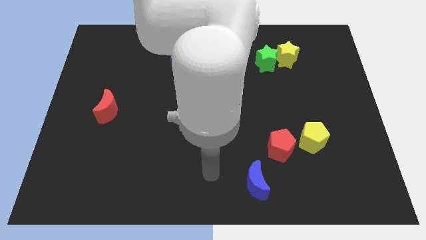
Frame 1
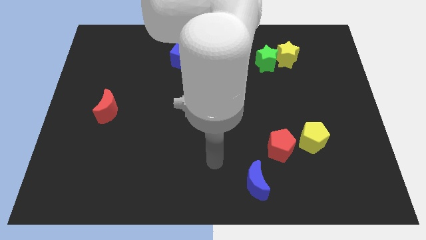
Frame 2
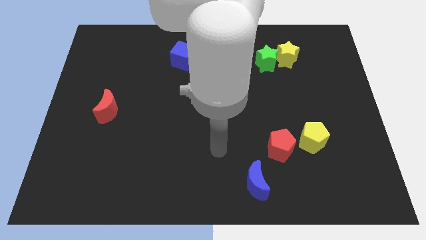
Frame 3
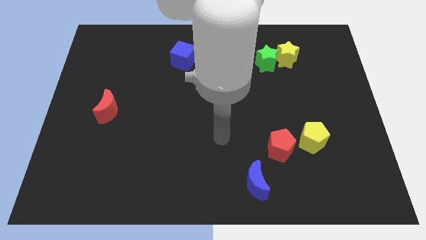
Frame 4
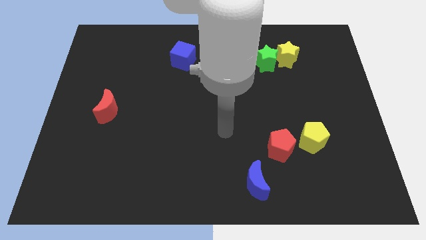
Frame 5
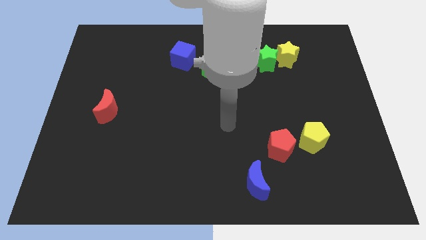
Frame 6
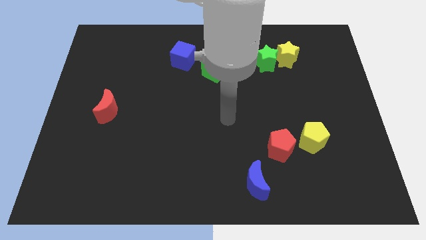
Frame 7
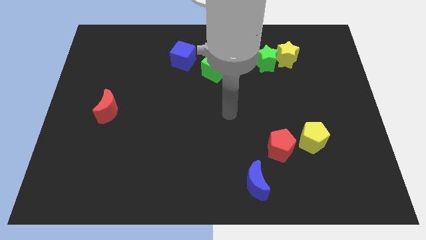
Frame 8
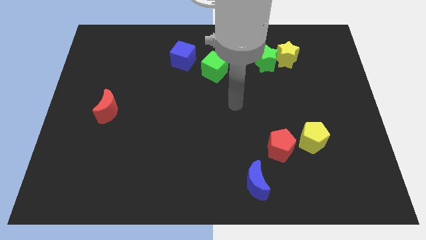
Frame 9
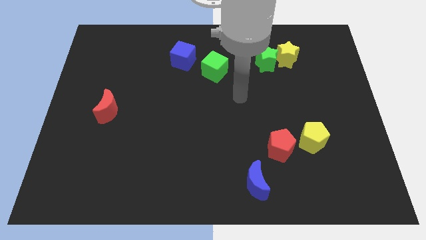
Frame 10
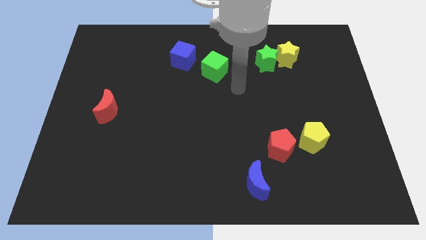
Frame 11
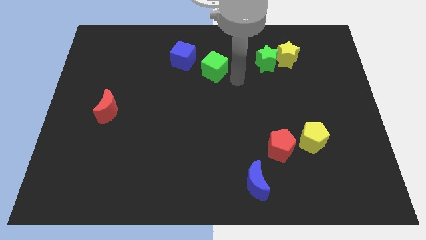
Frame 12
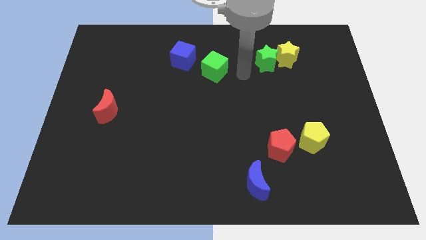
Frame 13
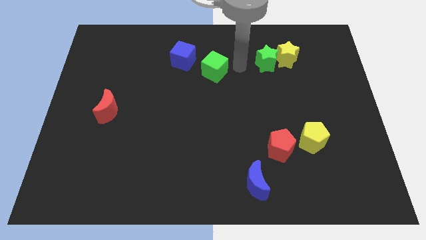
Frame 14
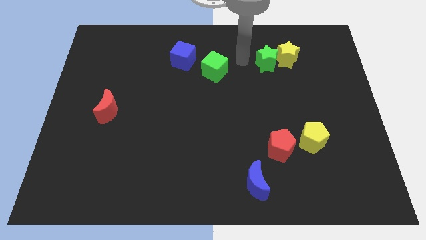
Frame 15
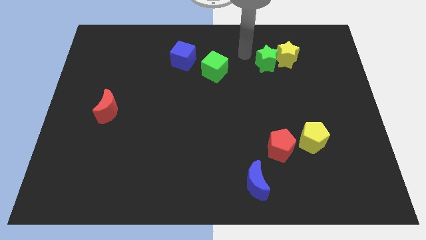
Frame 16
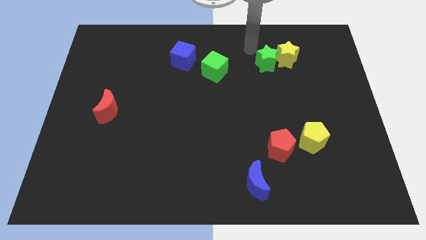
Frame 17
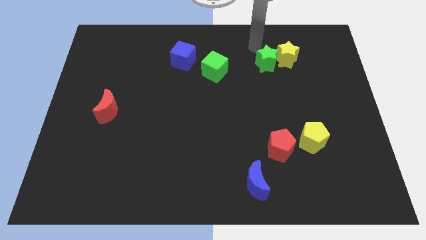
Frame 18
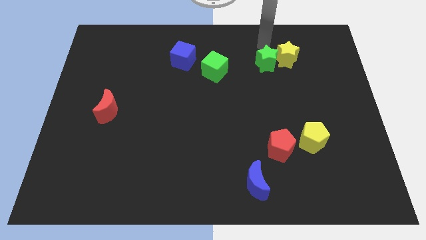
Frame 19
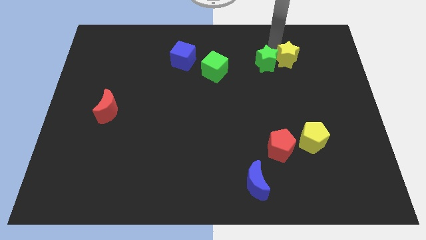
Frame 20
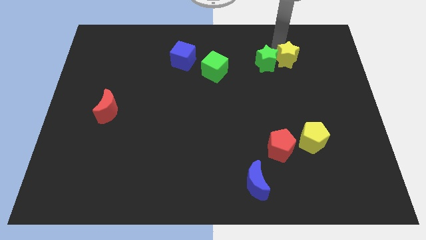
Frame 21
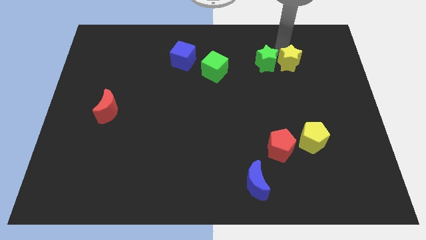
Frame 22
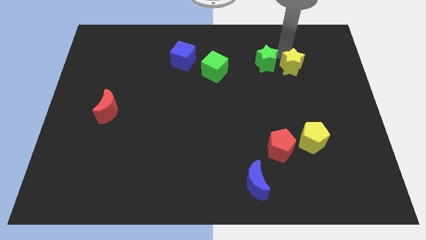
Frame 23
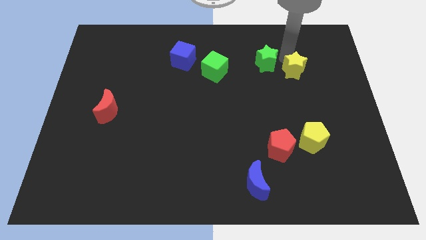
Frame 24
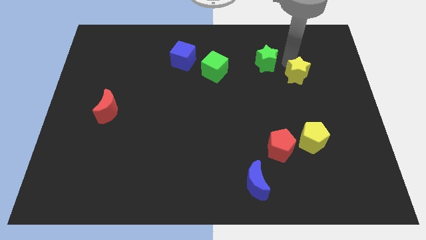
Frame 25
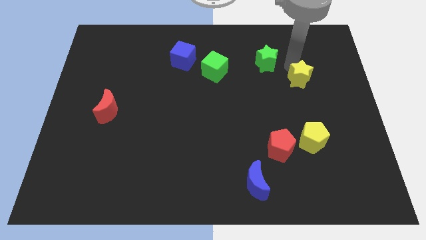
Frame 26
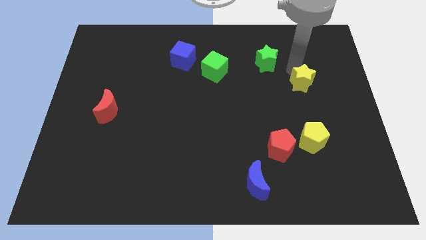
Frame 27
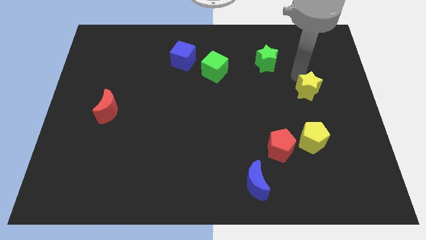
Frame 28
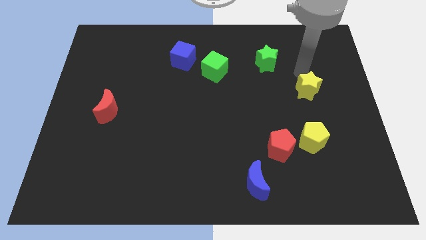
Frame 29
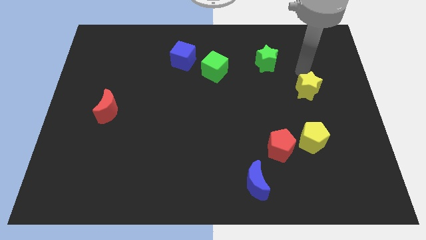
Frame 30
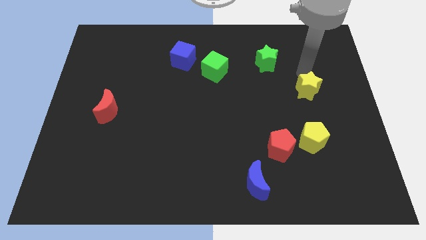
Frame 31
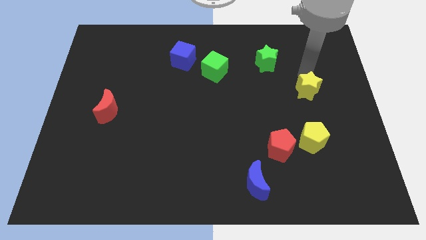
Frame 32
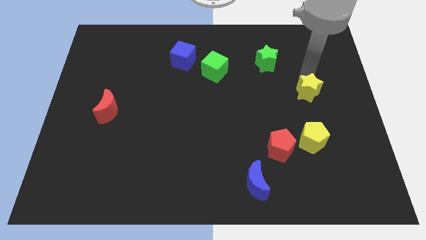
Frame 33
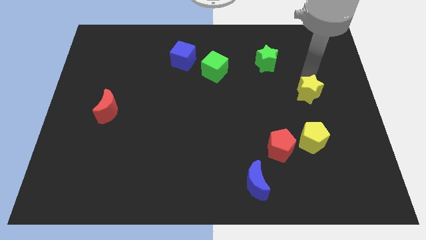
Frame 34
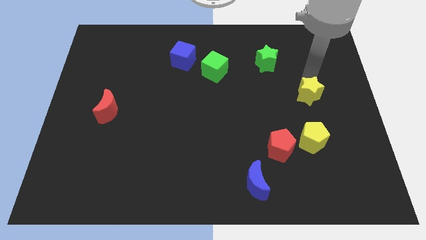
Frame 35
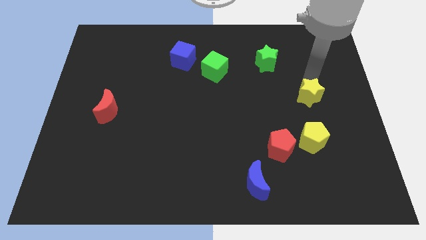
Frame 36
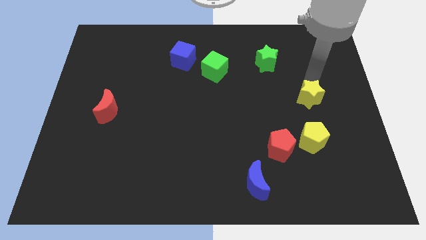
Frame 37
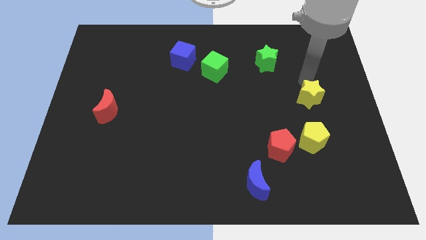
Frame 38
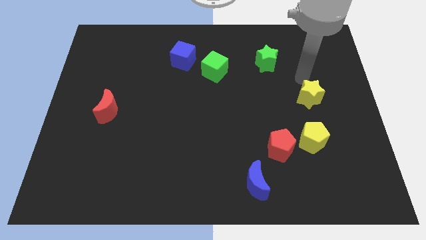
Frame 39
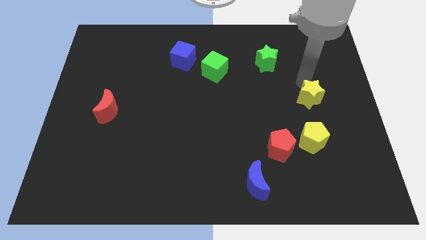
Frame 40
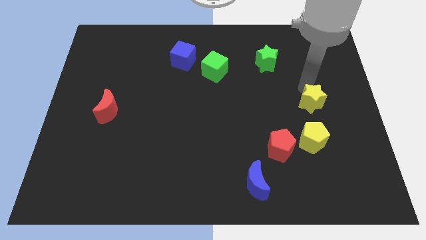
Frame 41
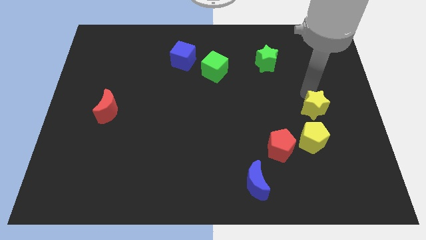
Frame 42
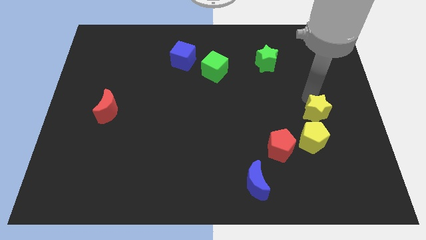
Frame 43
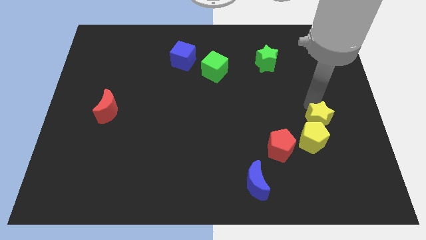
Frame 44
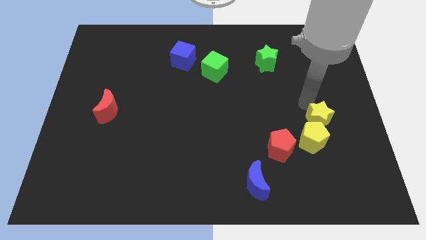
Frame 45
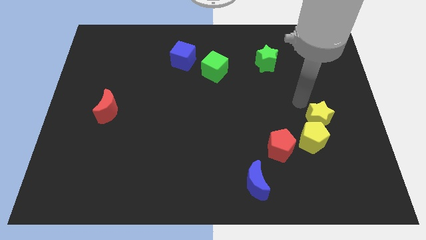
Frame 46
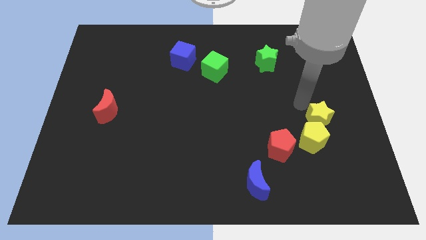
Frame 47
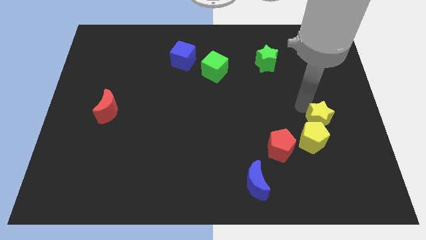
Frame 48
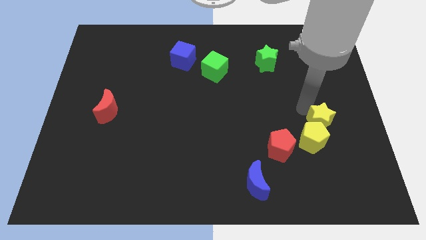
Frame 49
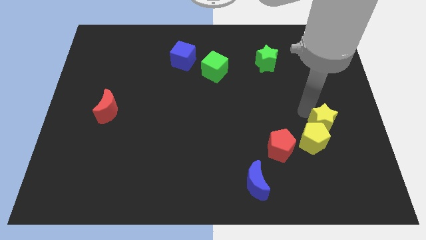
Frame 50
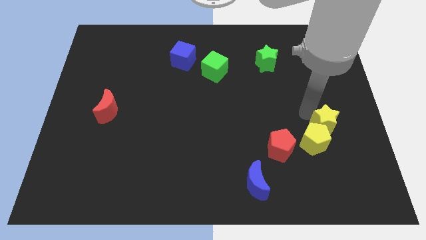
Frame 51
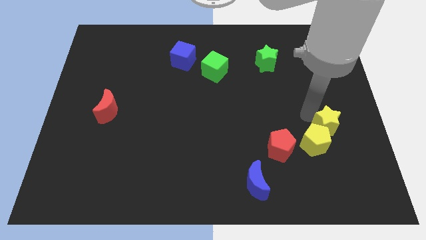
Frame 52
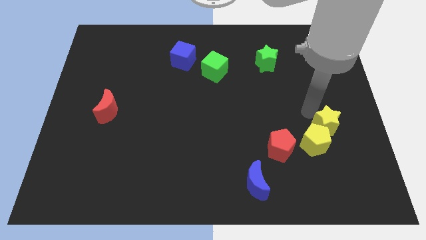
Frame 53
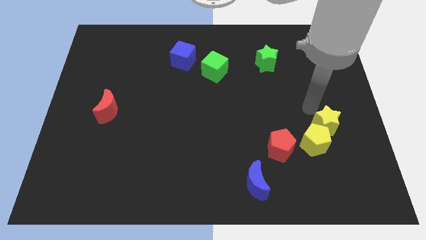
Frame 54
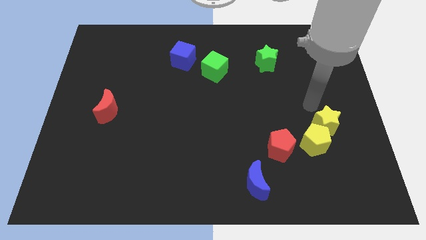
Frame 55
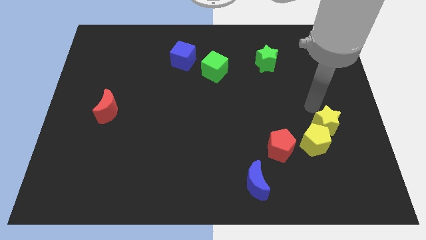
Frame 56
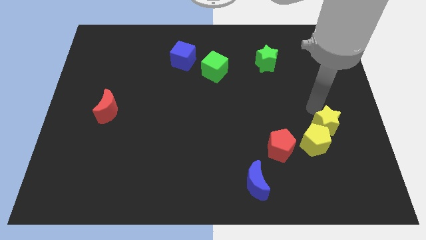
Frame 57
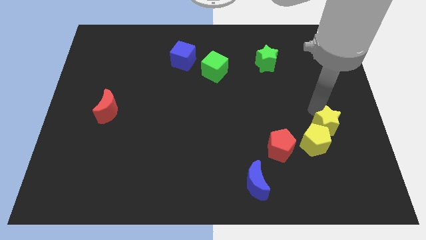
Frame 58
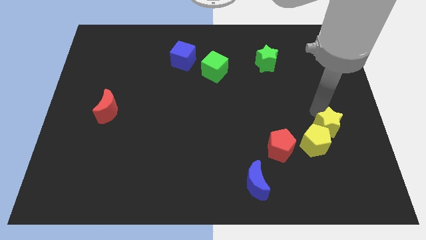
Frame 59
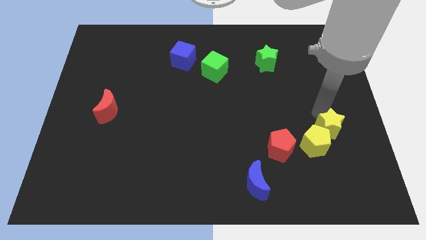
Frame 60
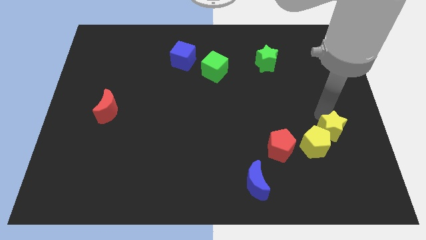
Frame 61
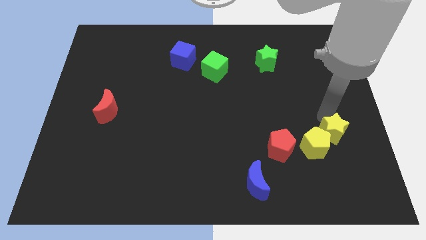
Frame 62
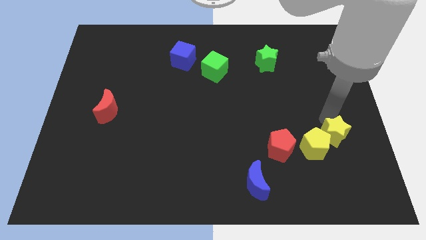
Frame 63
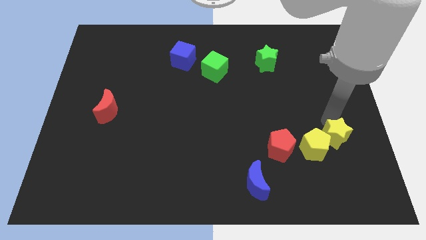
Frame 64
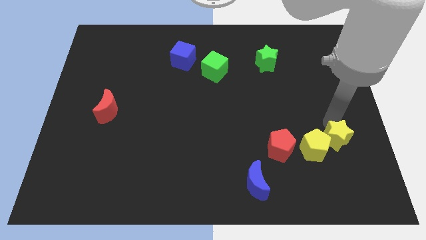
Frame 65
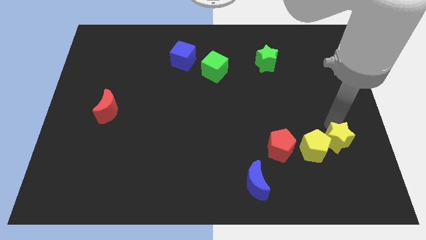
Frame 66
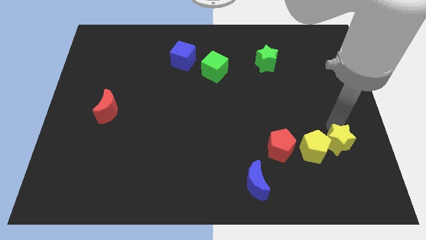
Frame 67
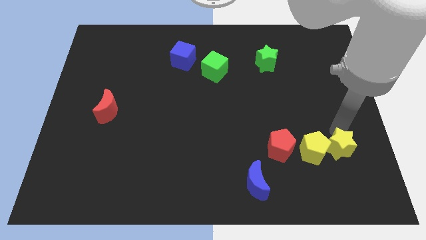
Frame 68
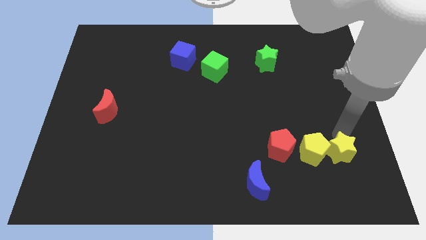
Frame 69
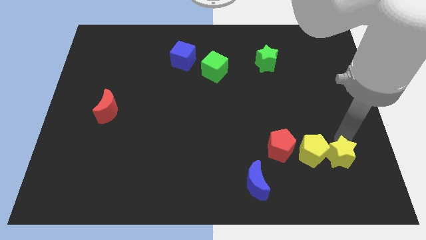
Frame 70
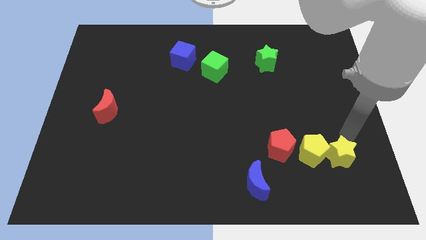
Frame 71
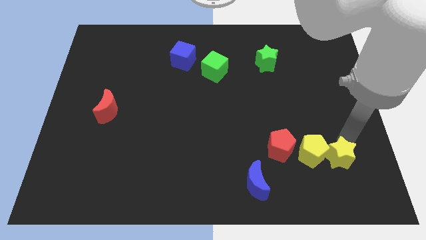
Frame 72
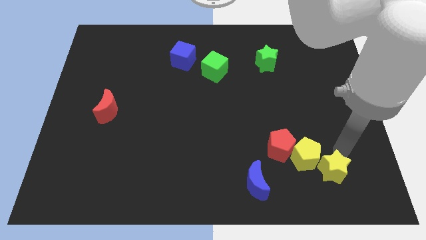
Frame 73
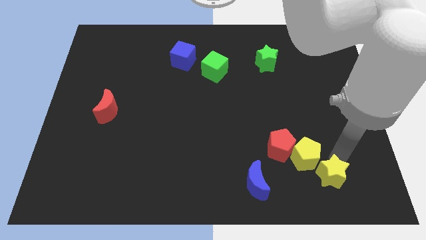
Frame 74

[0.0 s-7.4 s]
slide the yellow star to the bottom of the yellow pentagon
